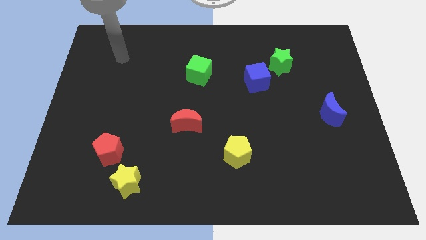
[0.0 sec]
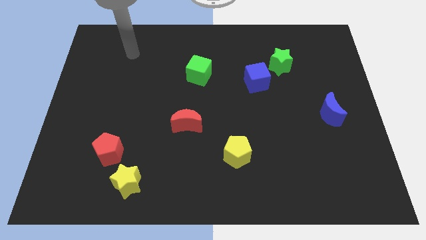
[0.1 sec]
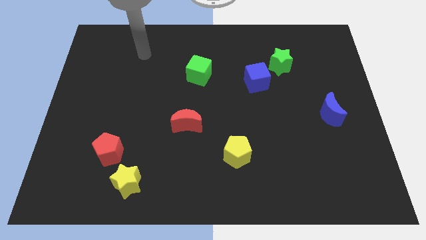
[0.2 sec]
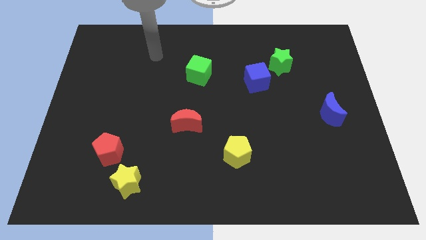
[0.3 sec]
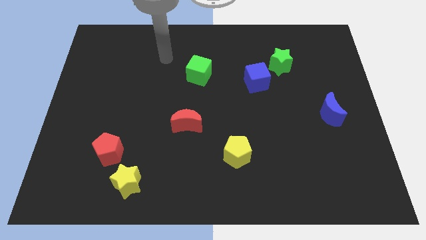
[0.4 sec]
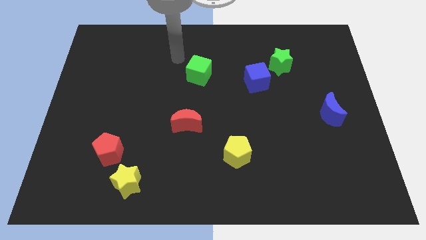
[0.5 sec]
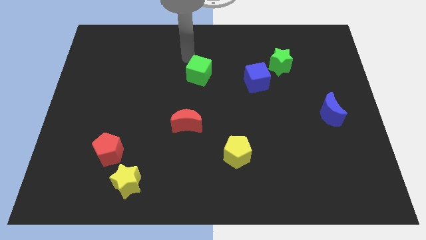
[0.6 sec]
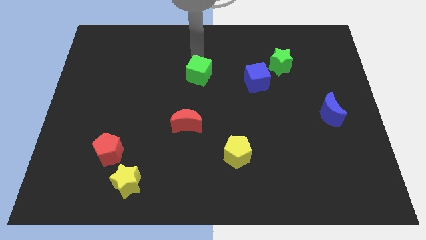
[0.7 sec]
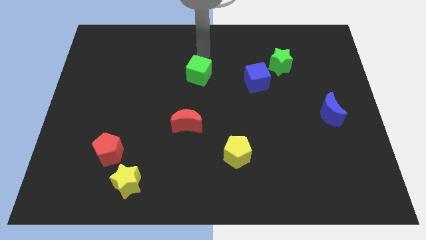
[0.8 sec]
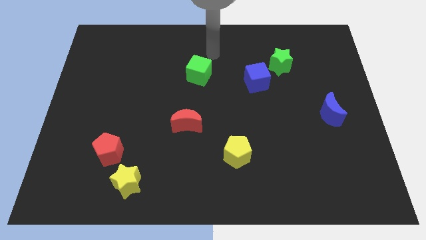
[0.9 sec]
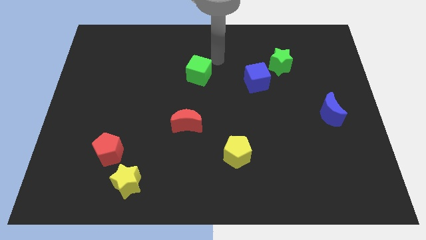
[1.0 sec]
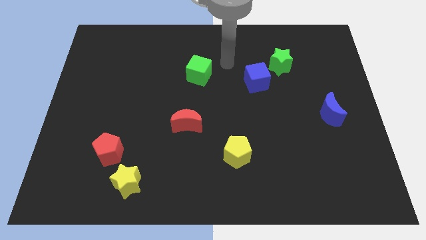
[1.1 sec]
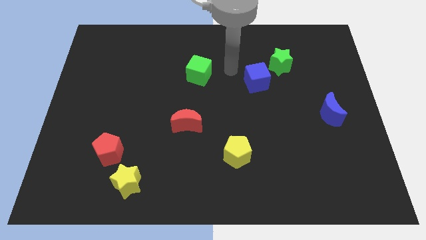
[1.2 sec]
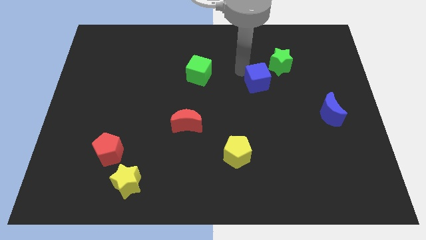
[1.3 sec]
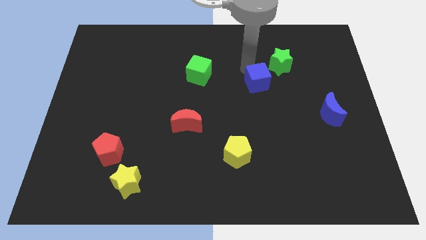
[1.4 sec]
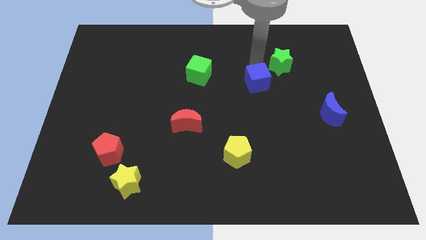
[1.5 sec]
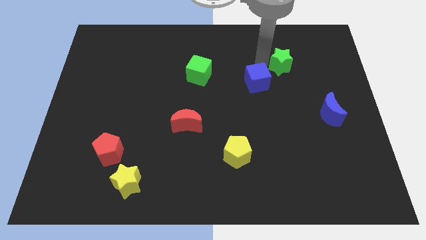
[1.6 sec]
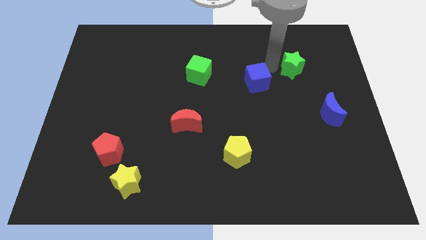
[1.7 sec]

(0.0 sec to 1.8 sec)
move the blue cube away from the green star

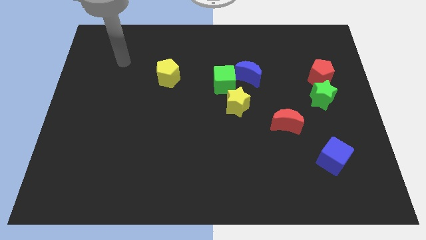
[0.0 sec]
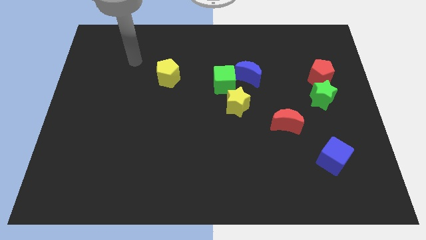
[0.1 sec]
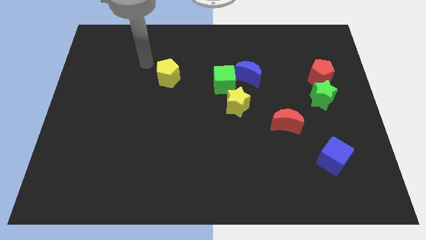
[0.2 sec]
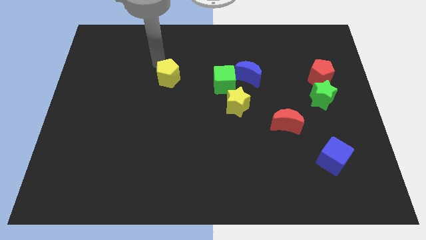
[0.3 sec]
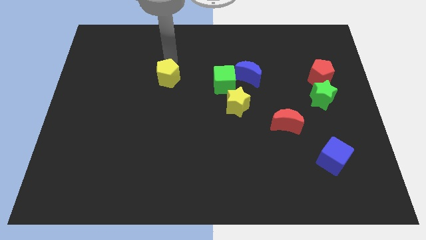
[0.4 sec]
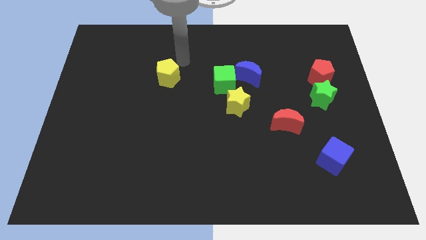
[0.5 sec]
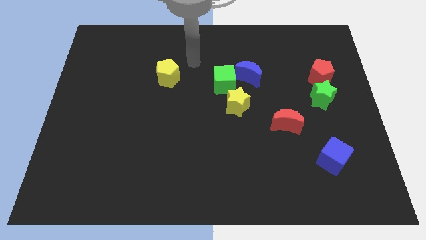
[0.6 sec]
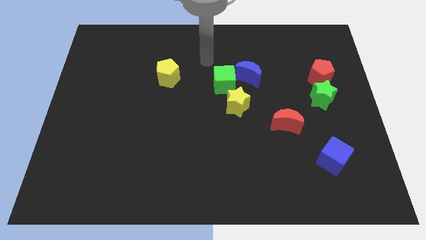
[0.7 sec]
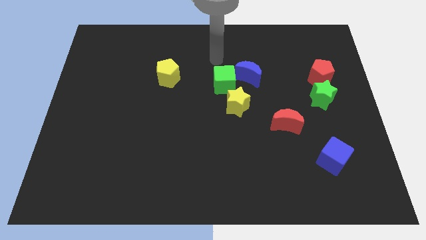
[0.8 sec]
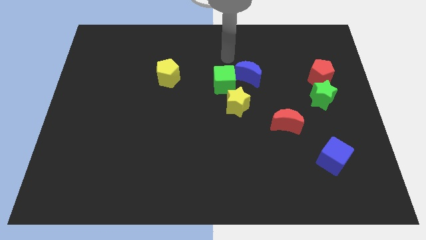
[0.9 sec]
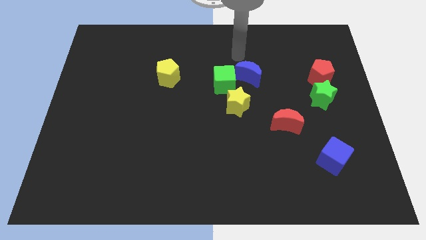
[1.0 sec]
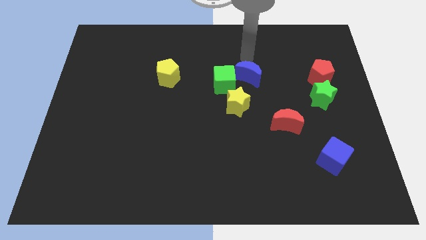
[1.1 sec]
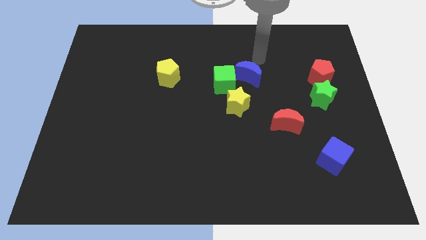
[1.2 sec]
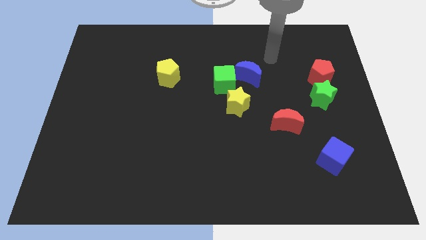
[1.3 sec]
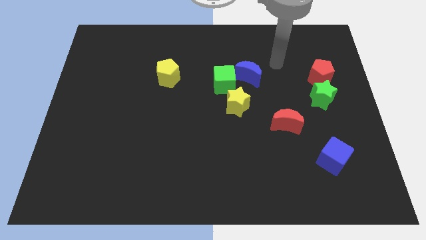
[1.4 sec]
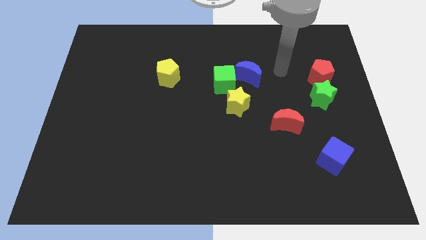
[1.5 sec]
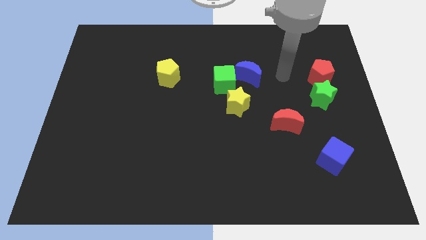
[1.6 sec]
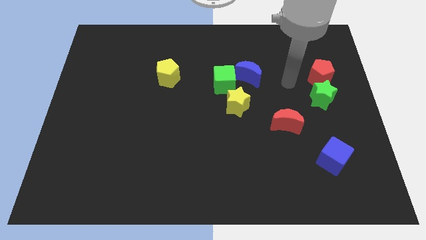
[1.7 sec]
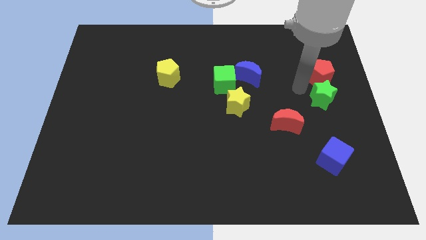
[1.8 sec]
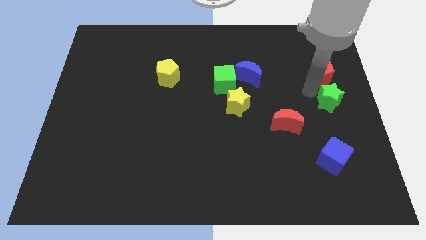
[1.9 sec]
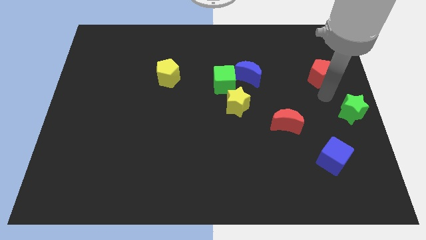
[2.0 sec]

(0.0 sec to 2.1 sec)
move the red pentagon away from the green star

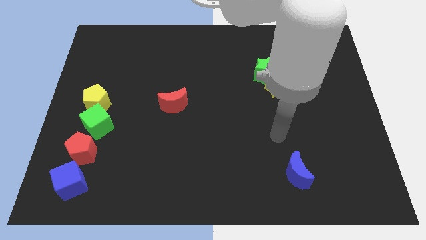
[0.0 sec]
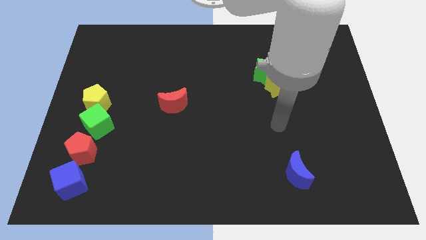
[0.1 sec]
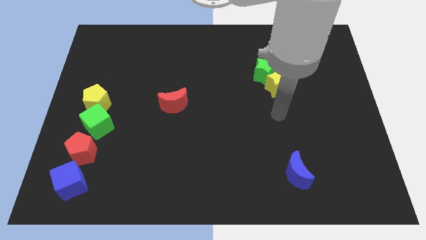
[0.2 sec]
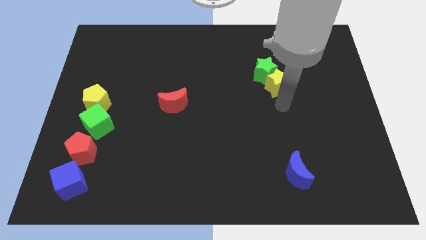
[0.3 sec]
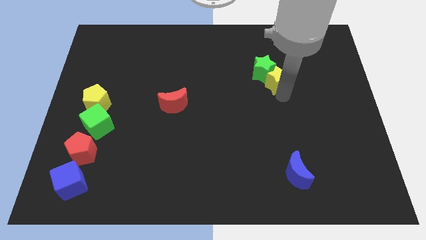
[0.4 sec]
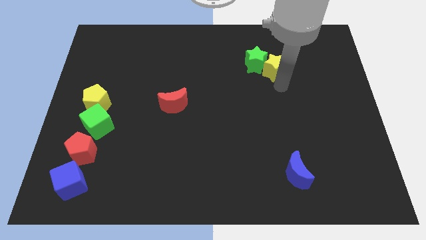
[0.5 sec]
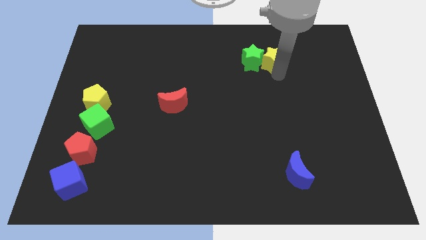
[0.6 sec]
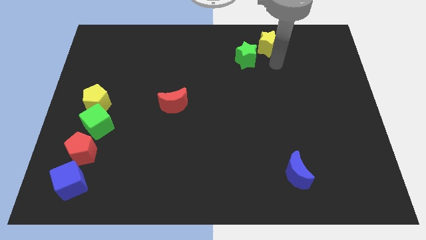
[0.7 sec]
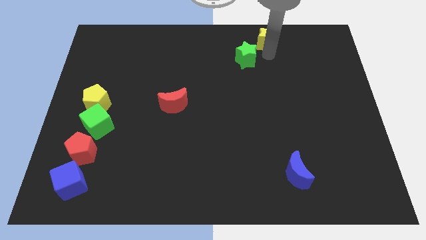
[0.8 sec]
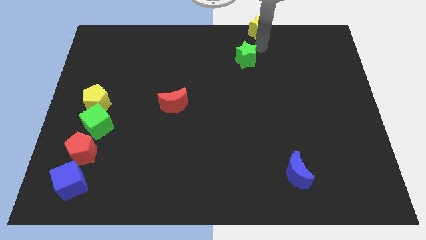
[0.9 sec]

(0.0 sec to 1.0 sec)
pull the green star apart from the yellow star

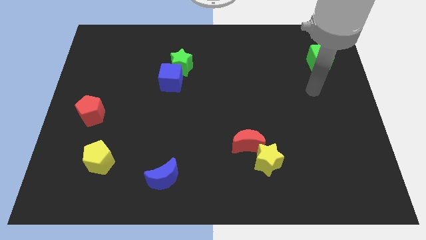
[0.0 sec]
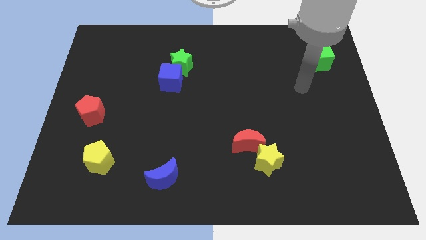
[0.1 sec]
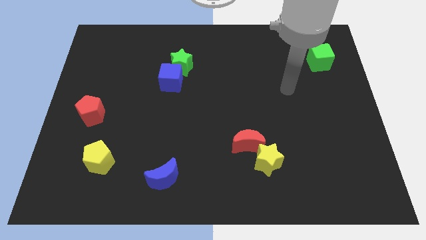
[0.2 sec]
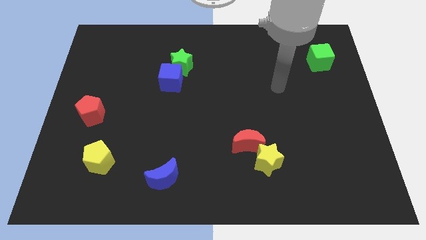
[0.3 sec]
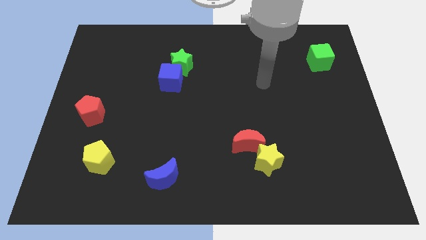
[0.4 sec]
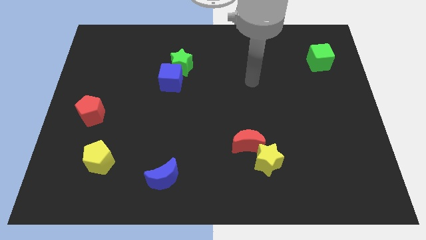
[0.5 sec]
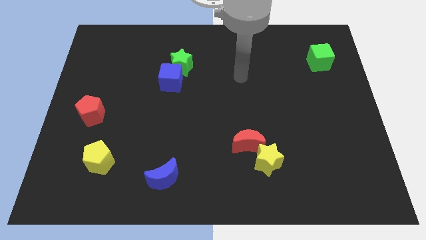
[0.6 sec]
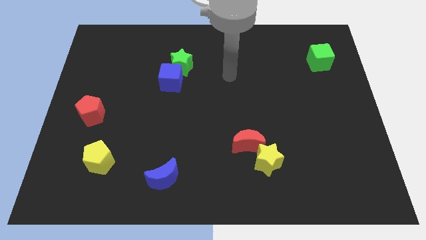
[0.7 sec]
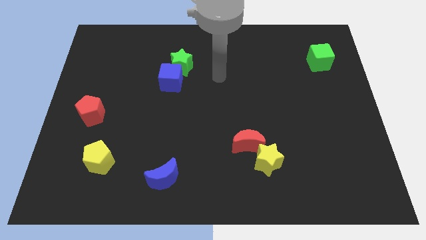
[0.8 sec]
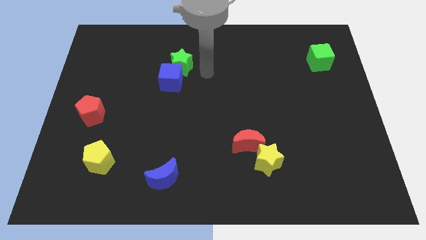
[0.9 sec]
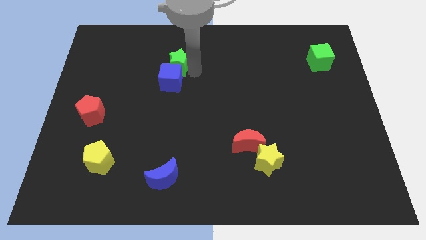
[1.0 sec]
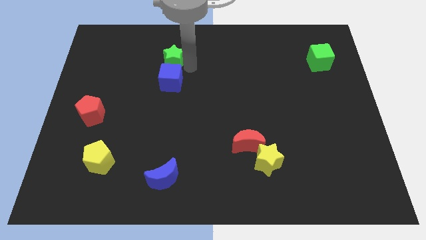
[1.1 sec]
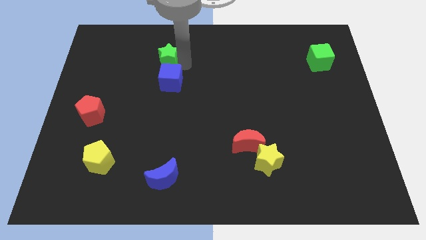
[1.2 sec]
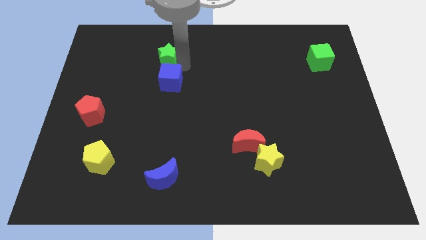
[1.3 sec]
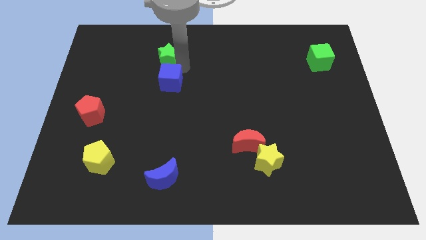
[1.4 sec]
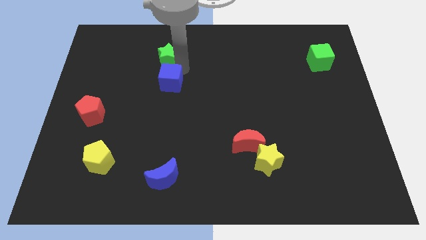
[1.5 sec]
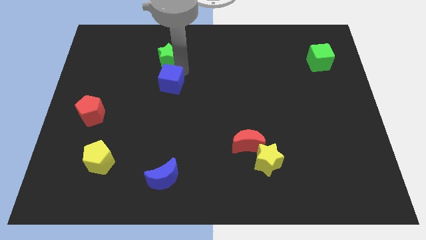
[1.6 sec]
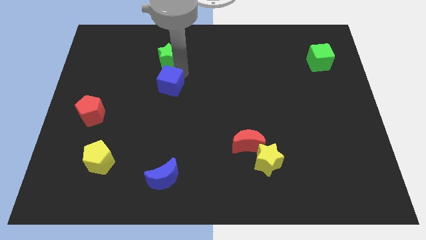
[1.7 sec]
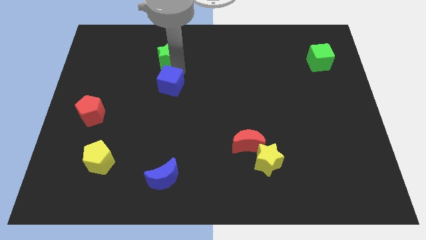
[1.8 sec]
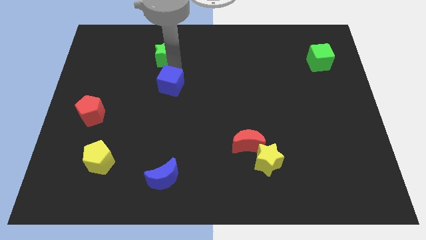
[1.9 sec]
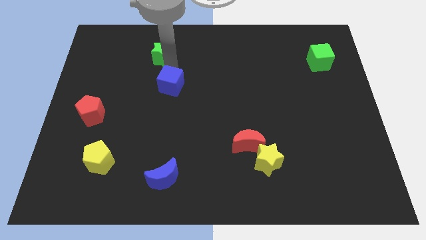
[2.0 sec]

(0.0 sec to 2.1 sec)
pull the blue cube apart from the green star

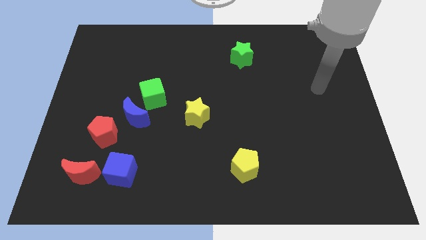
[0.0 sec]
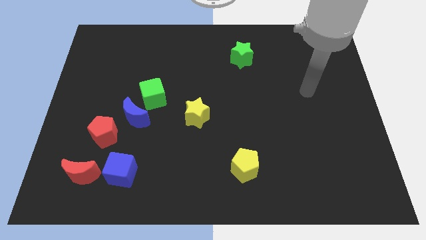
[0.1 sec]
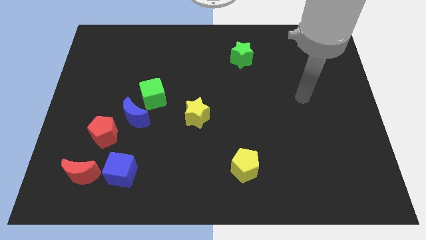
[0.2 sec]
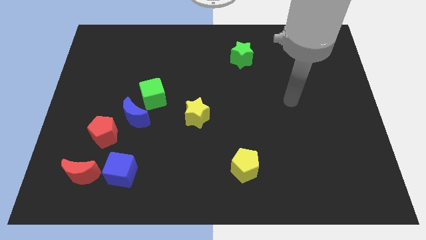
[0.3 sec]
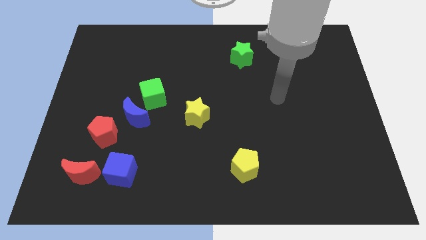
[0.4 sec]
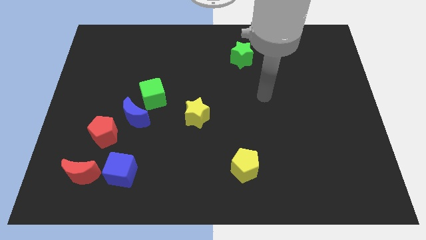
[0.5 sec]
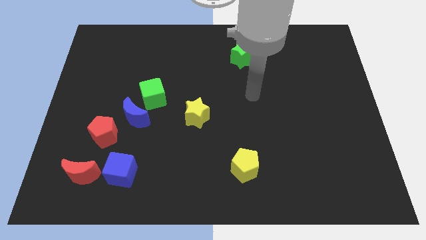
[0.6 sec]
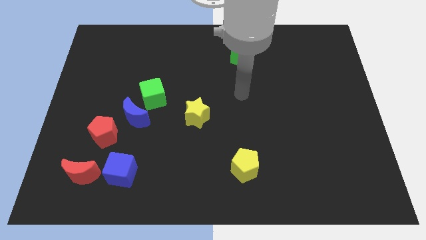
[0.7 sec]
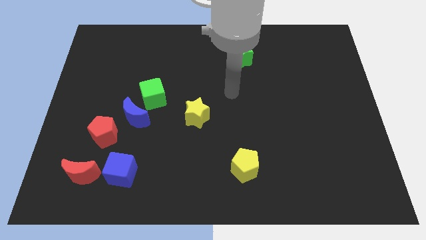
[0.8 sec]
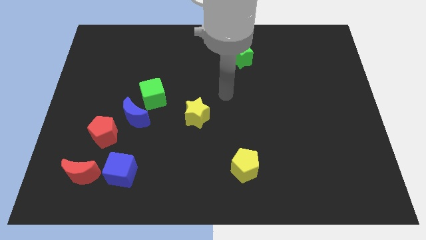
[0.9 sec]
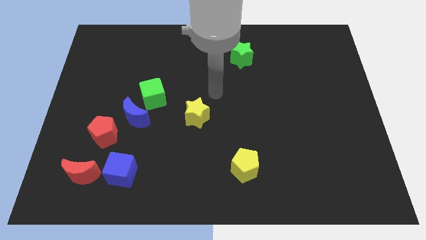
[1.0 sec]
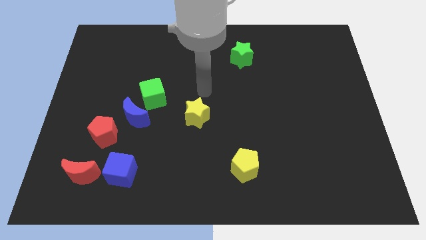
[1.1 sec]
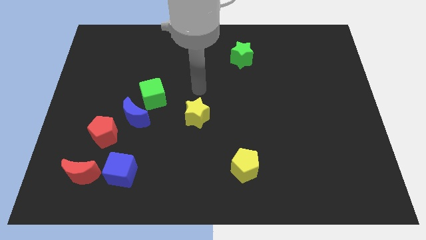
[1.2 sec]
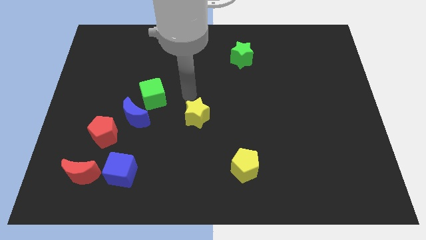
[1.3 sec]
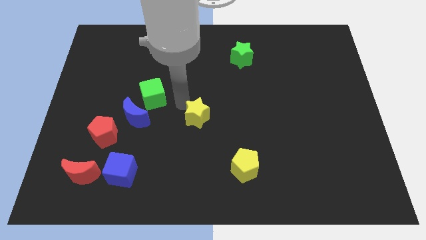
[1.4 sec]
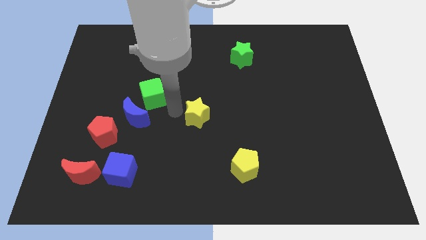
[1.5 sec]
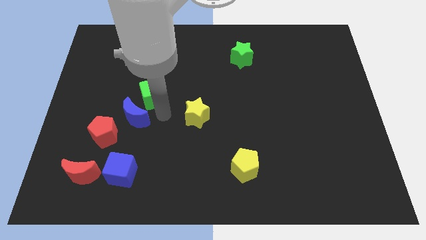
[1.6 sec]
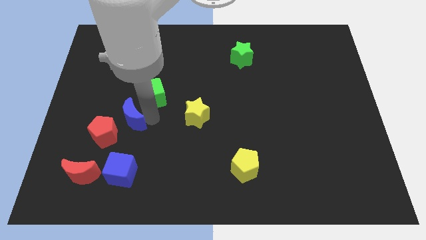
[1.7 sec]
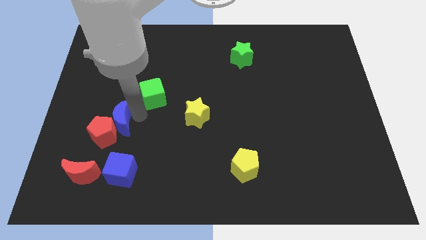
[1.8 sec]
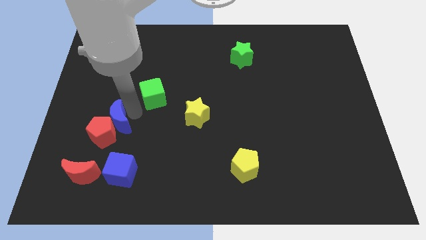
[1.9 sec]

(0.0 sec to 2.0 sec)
pull the green cube apart from the blue moon

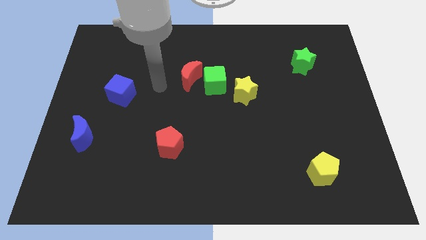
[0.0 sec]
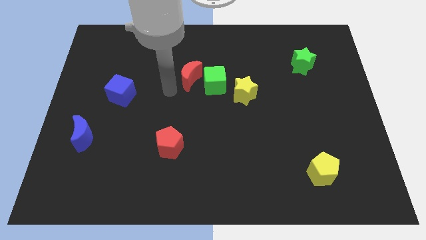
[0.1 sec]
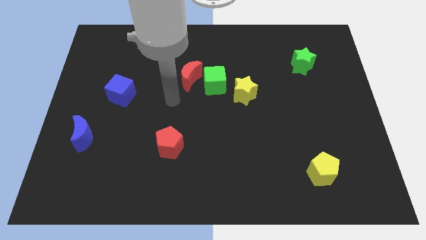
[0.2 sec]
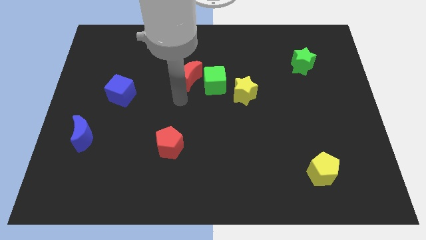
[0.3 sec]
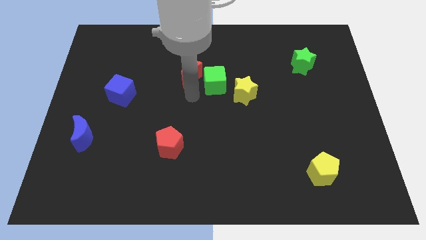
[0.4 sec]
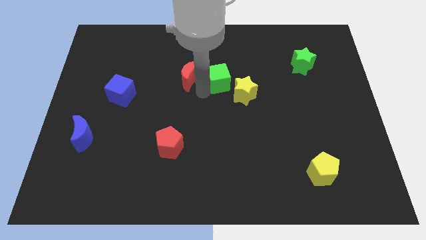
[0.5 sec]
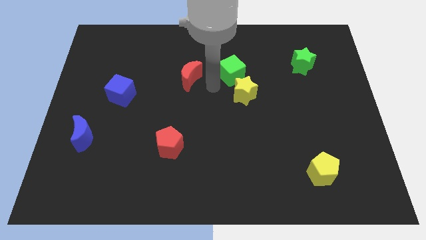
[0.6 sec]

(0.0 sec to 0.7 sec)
pull the red moon apart from the green cube
